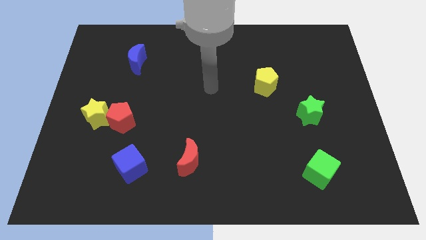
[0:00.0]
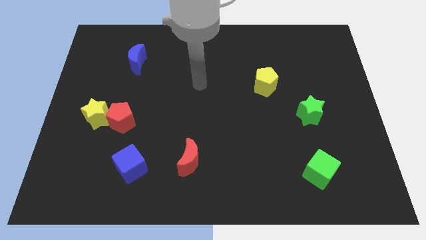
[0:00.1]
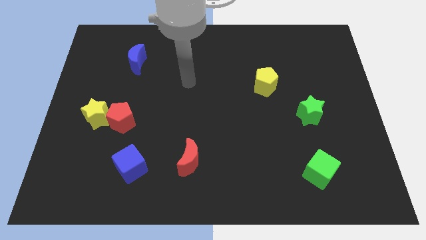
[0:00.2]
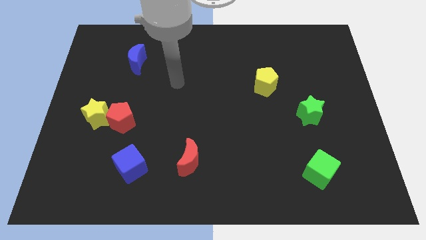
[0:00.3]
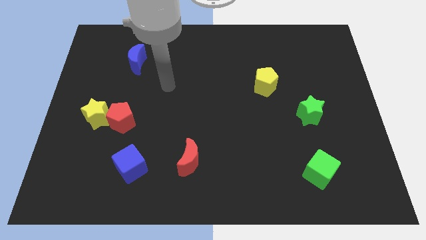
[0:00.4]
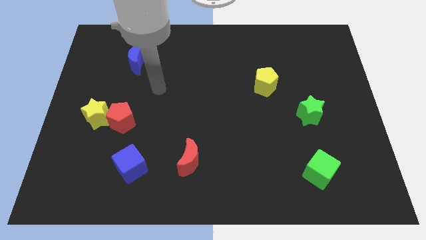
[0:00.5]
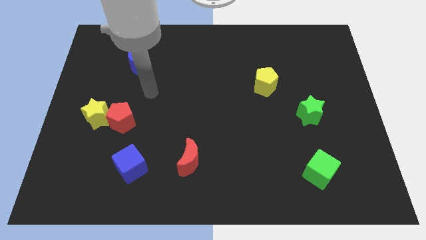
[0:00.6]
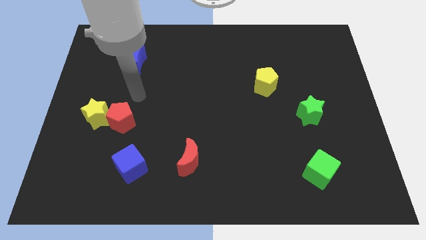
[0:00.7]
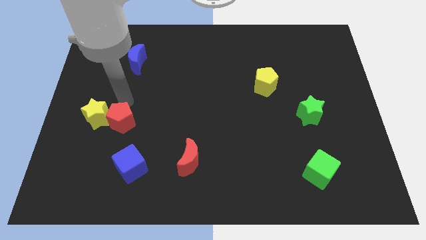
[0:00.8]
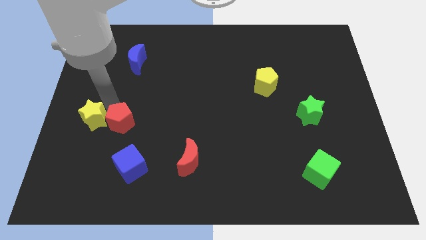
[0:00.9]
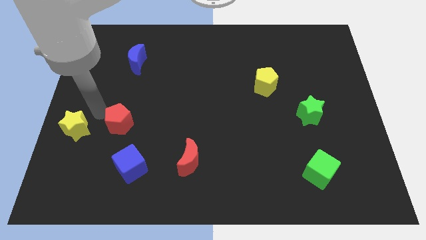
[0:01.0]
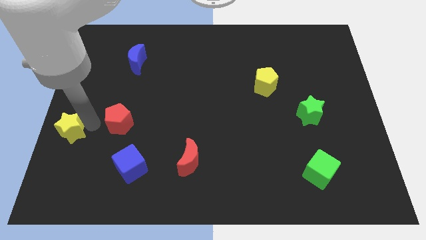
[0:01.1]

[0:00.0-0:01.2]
pull the red pentagon apart from the yellow star

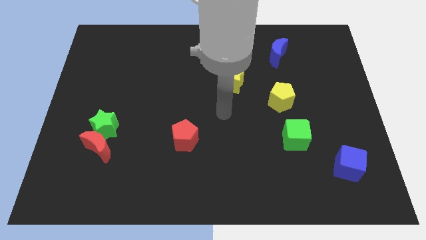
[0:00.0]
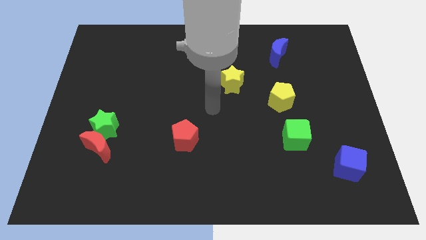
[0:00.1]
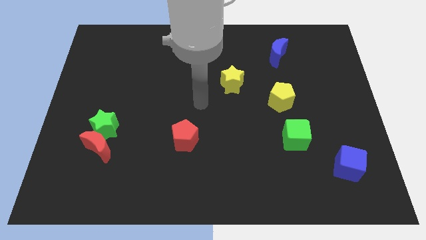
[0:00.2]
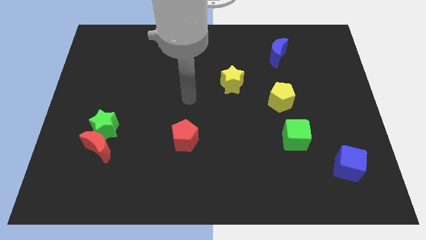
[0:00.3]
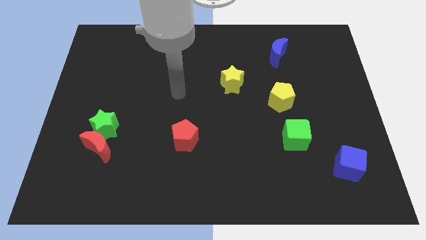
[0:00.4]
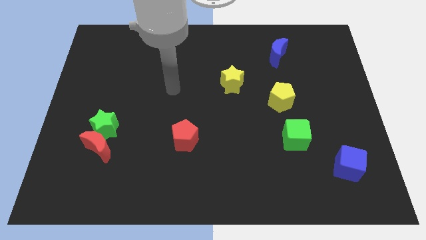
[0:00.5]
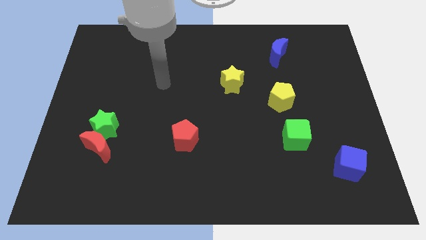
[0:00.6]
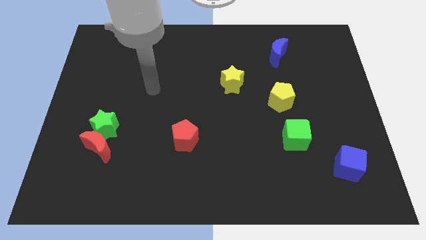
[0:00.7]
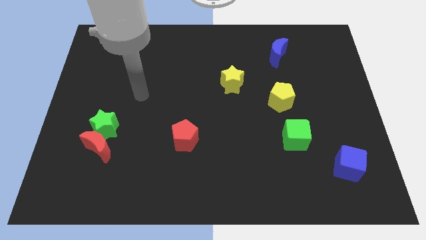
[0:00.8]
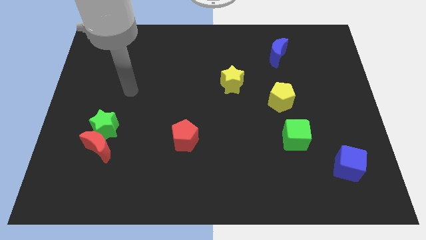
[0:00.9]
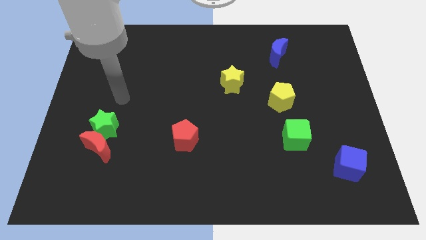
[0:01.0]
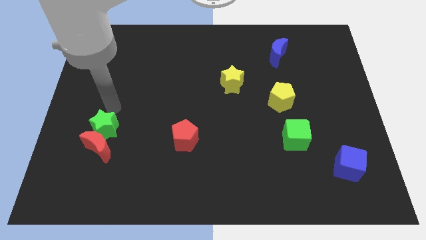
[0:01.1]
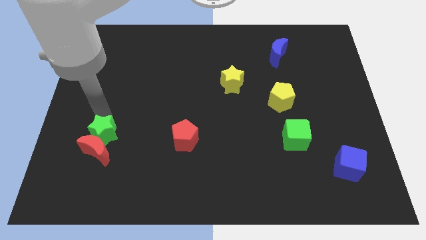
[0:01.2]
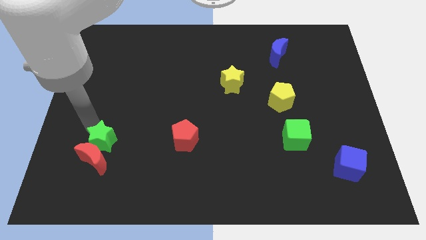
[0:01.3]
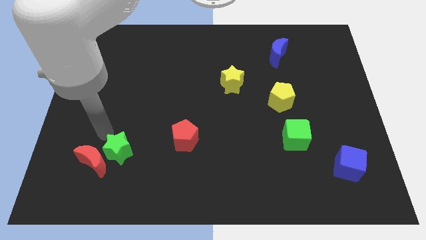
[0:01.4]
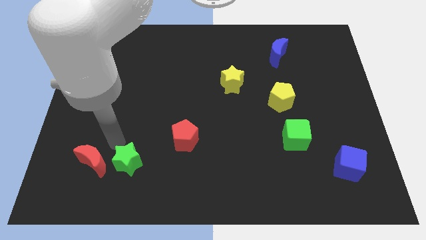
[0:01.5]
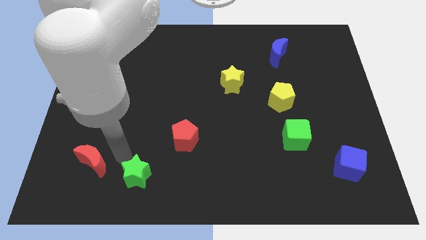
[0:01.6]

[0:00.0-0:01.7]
move the red moon away from the green star

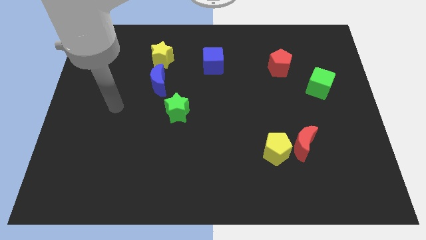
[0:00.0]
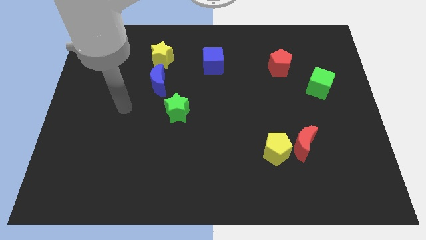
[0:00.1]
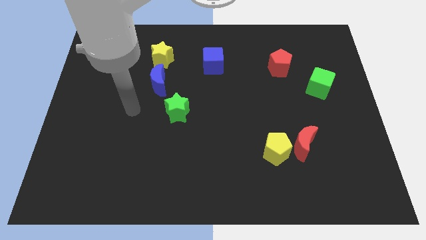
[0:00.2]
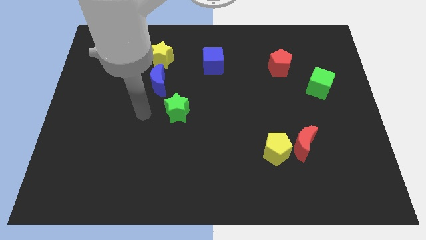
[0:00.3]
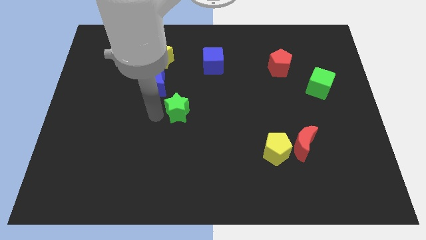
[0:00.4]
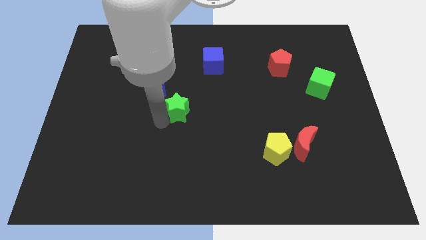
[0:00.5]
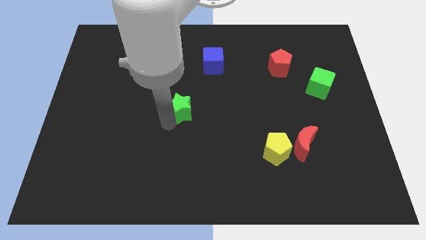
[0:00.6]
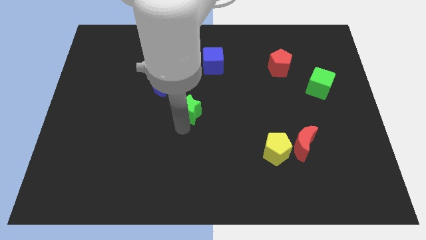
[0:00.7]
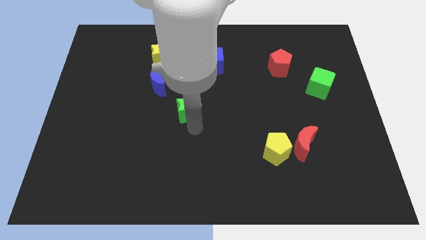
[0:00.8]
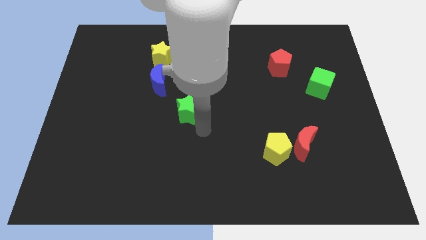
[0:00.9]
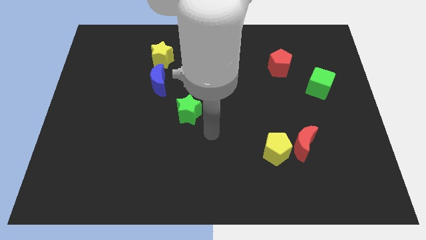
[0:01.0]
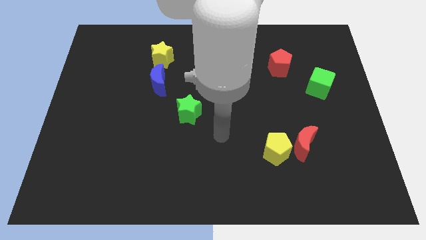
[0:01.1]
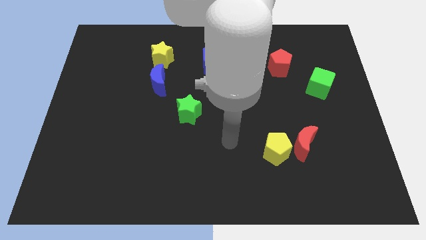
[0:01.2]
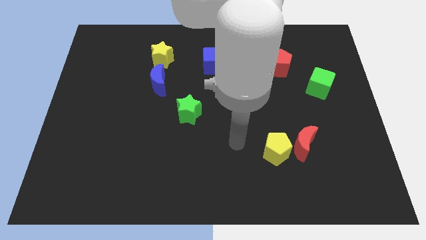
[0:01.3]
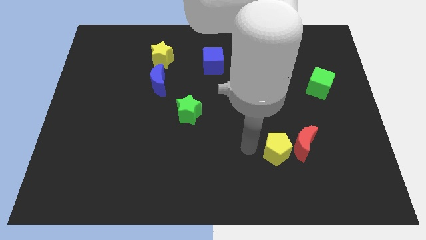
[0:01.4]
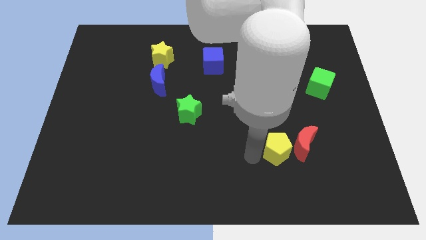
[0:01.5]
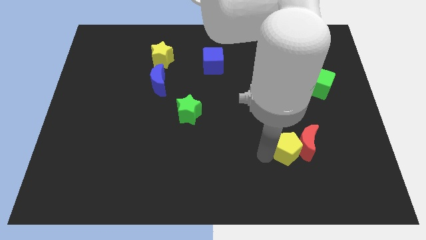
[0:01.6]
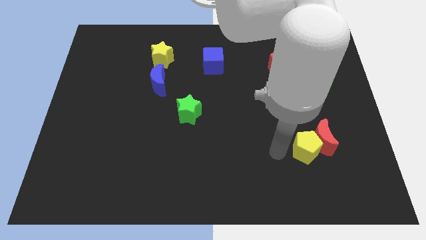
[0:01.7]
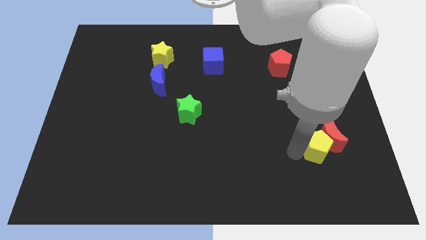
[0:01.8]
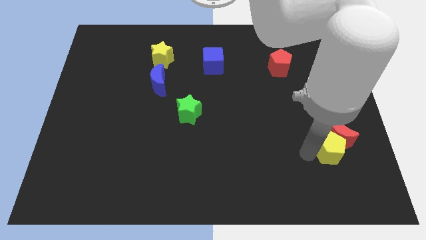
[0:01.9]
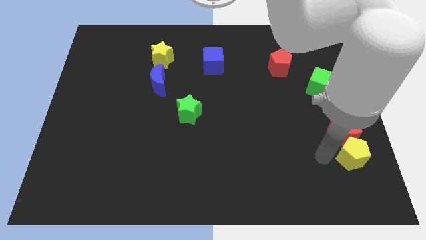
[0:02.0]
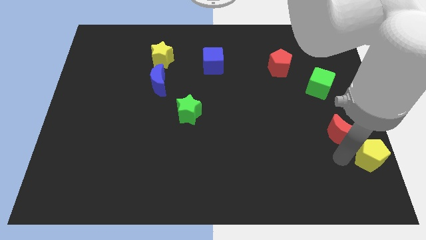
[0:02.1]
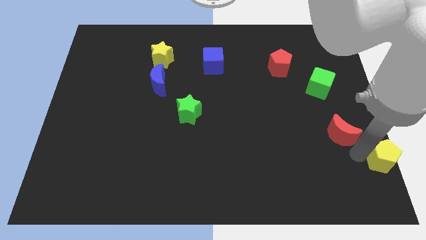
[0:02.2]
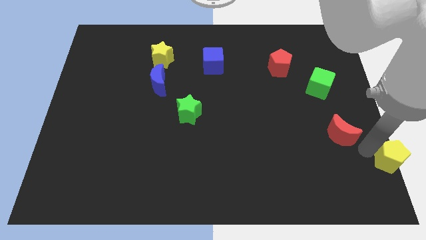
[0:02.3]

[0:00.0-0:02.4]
pull the red moon apart from the yellow pentagon

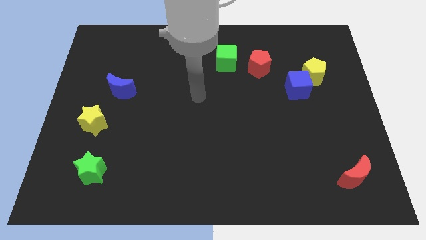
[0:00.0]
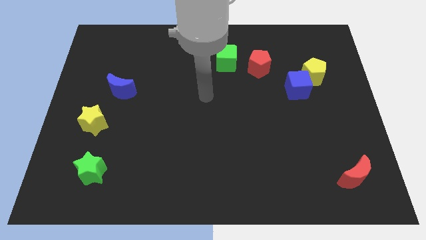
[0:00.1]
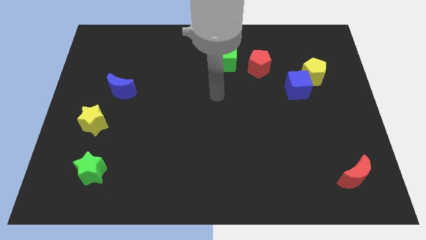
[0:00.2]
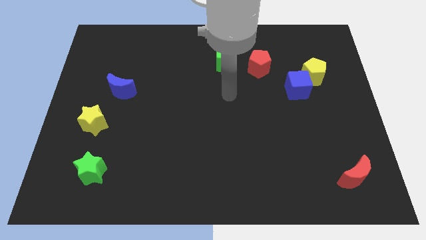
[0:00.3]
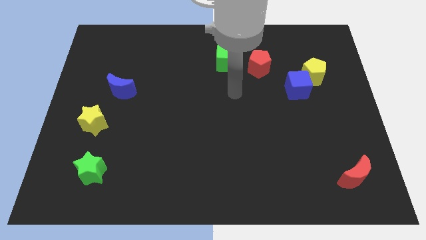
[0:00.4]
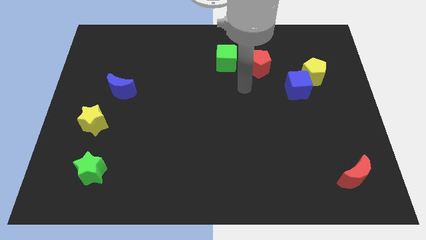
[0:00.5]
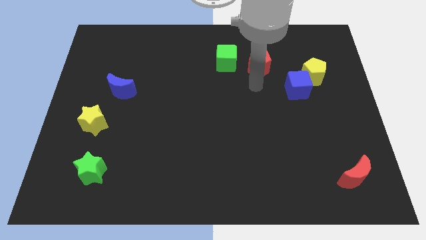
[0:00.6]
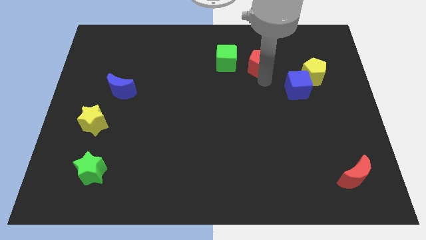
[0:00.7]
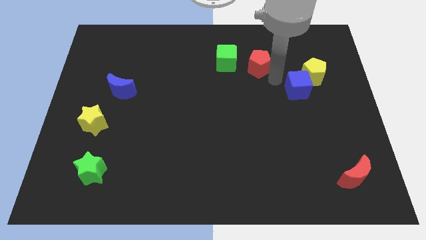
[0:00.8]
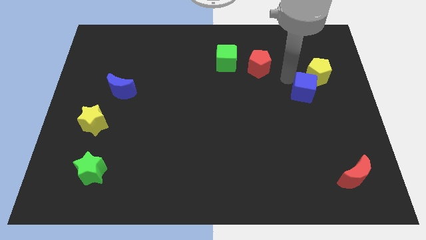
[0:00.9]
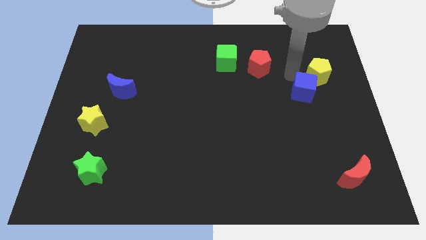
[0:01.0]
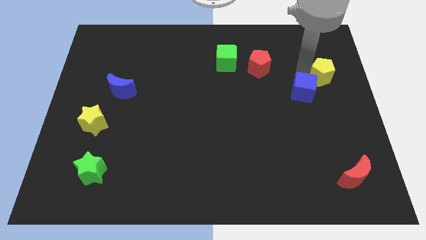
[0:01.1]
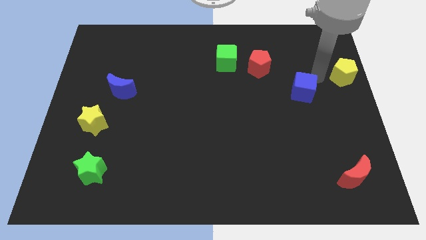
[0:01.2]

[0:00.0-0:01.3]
pull the blue cube apart from the yellow pentagon

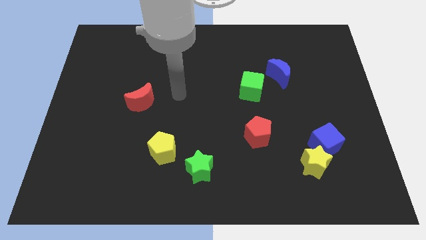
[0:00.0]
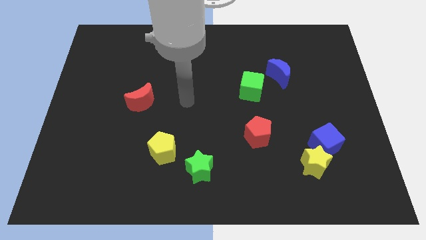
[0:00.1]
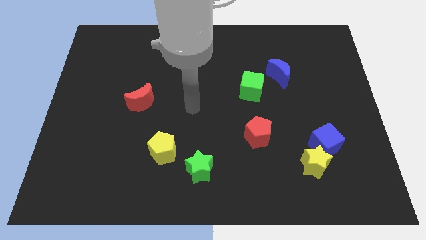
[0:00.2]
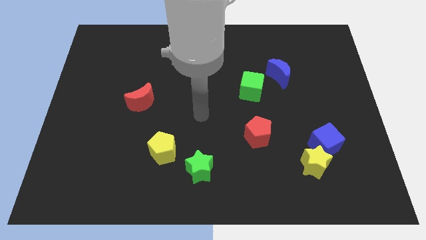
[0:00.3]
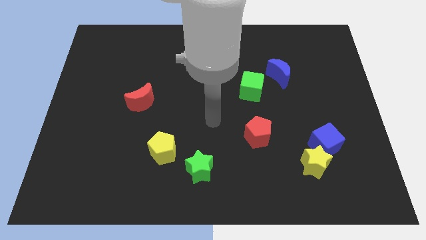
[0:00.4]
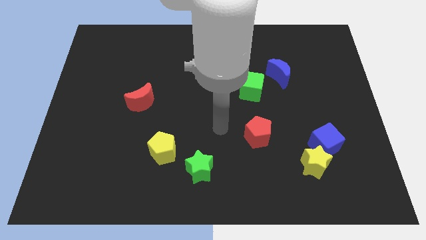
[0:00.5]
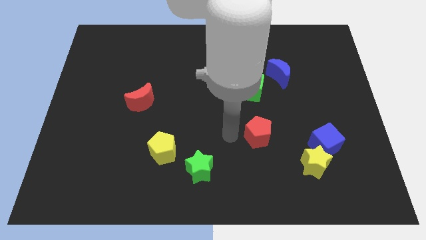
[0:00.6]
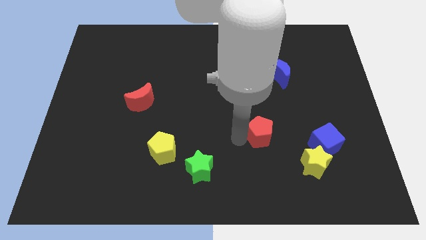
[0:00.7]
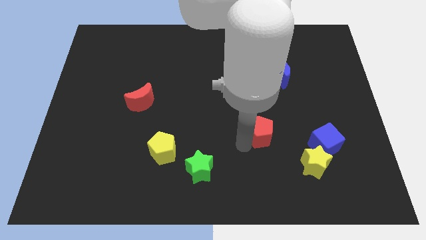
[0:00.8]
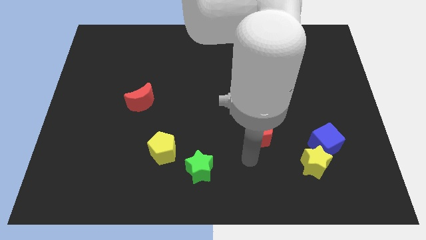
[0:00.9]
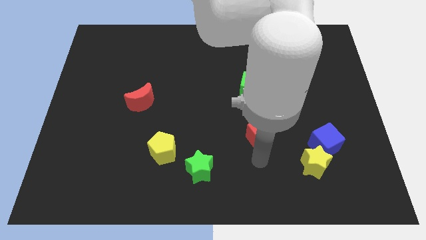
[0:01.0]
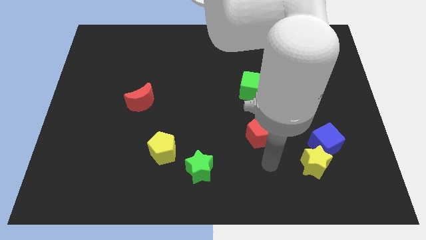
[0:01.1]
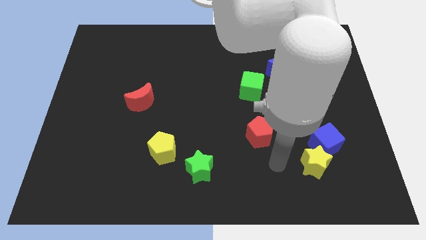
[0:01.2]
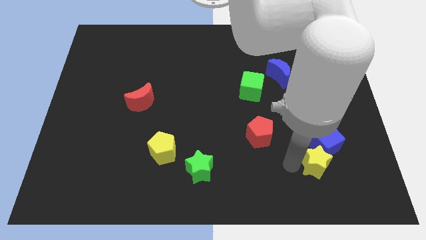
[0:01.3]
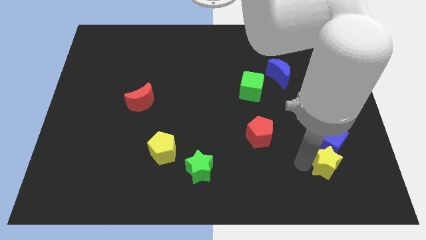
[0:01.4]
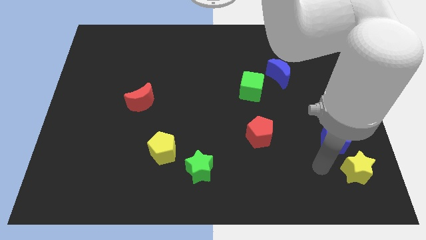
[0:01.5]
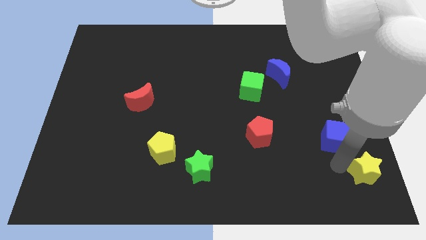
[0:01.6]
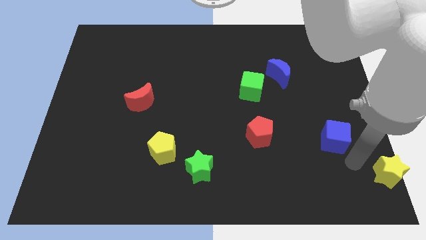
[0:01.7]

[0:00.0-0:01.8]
pull the blue cube apart from the yellow star

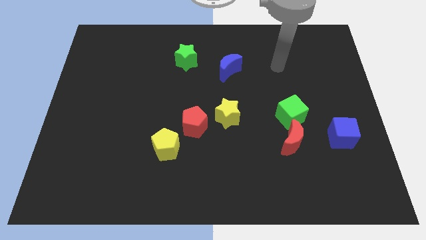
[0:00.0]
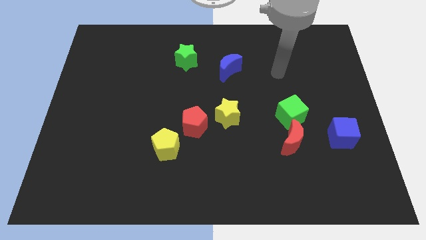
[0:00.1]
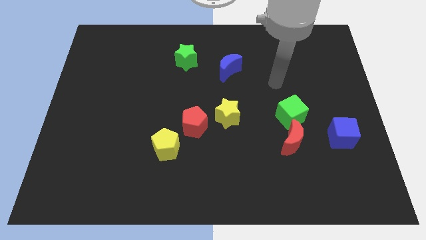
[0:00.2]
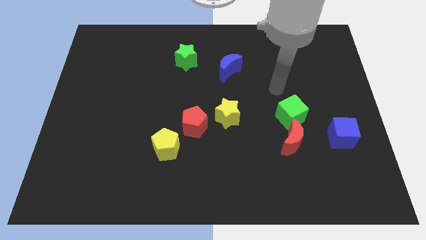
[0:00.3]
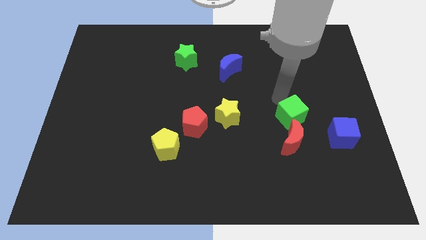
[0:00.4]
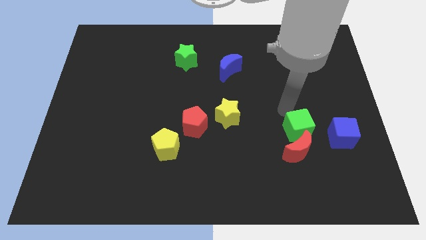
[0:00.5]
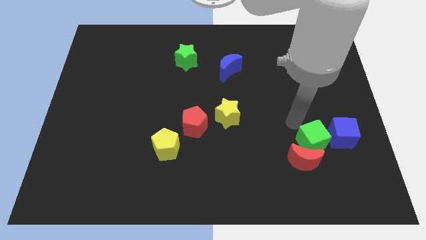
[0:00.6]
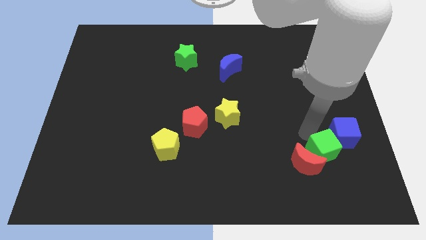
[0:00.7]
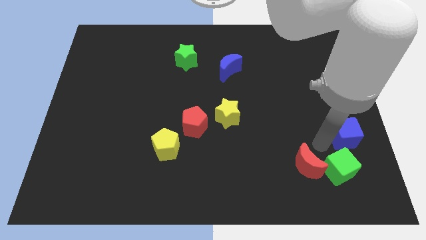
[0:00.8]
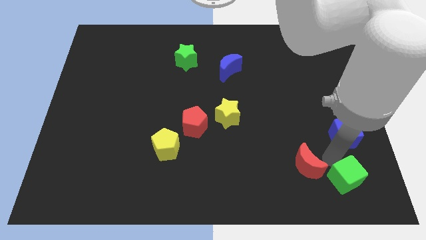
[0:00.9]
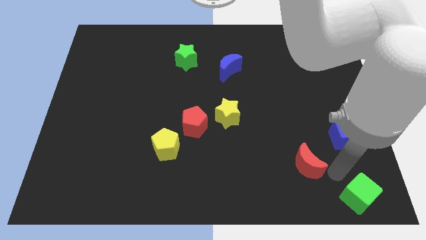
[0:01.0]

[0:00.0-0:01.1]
pull the red moon apart from the green cube
